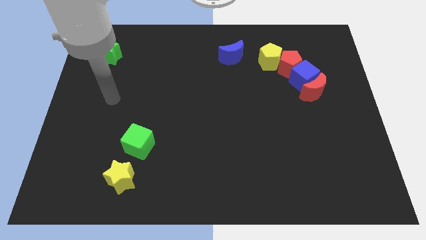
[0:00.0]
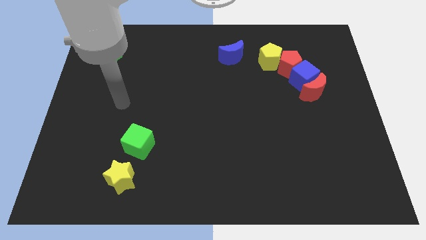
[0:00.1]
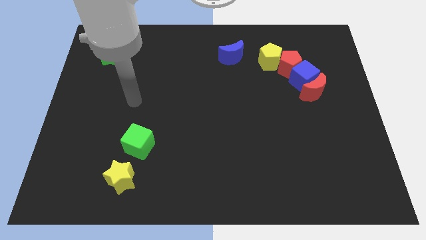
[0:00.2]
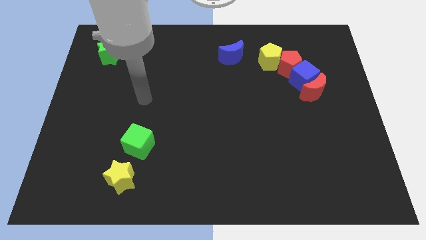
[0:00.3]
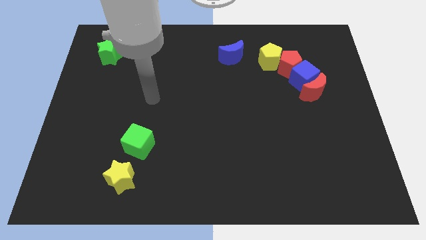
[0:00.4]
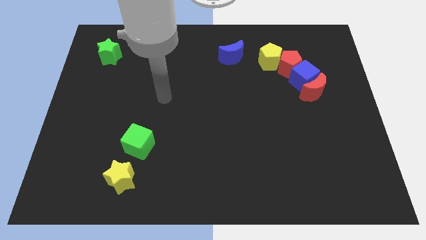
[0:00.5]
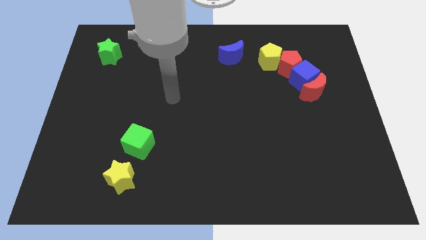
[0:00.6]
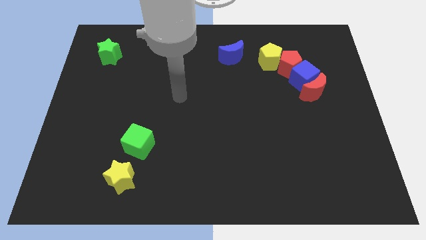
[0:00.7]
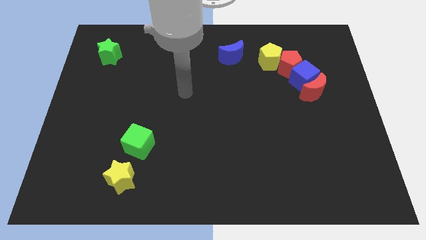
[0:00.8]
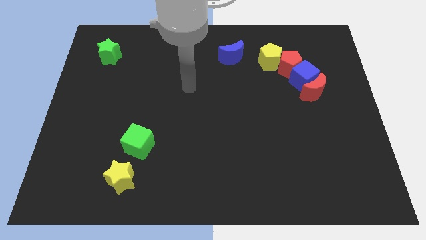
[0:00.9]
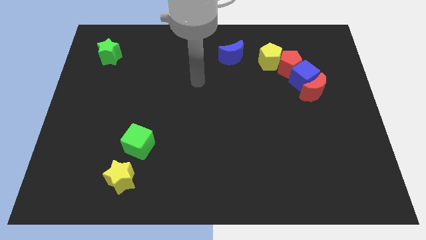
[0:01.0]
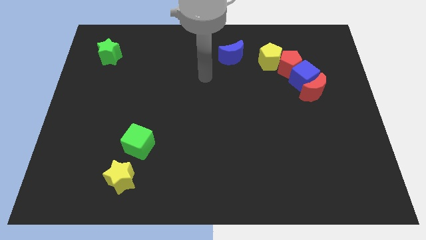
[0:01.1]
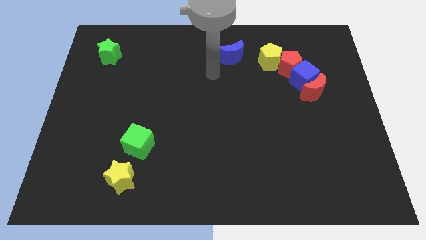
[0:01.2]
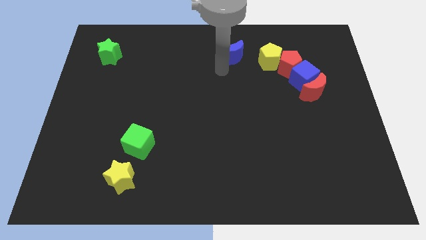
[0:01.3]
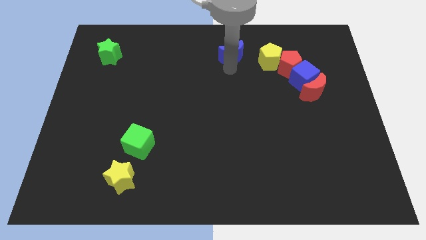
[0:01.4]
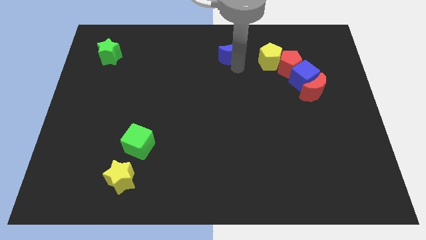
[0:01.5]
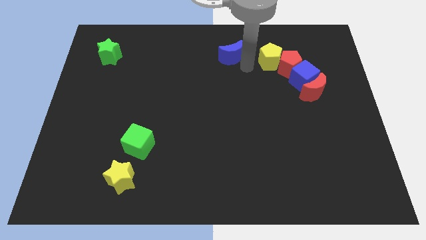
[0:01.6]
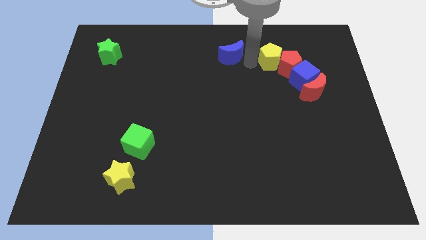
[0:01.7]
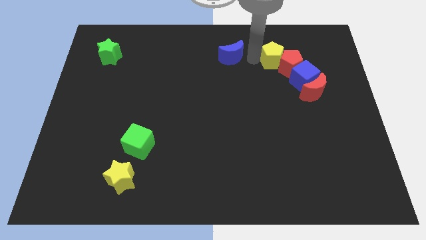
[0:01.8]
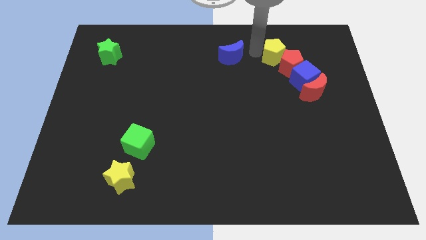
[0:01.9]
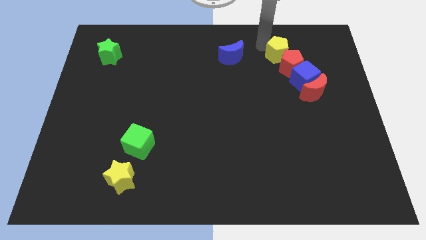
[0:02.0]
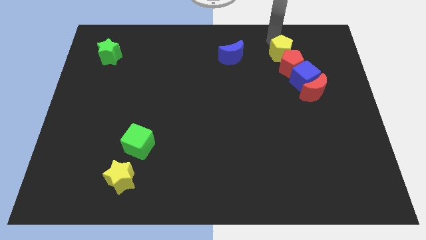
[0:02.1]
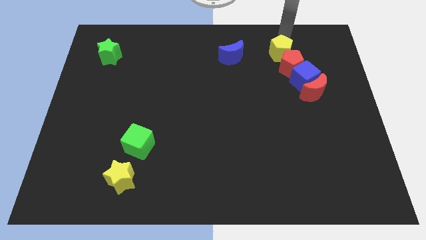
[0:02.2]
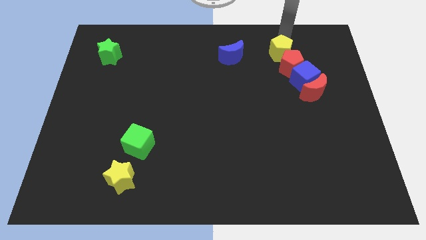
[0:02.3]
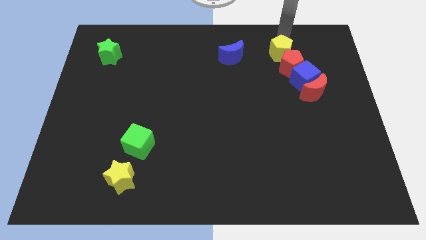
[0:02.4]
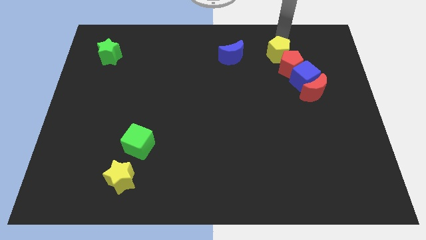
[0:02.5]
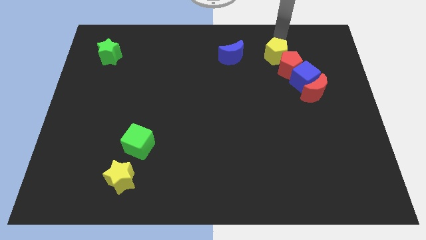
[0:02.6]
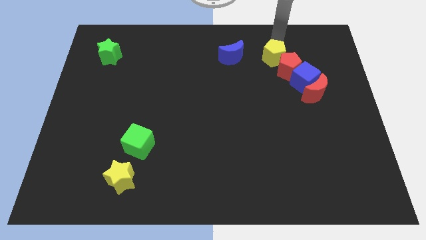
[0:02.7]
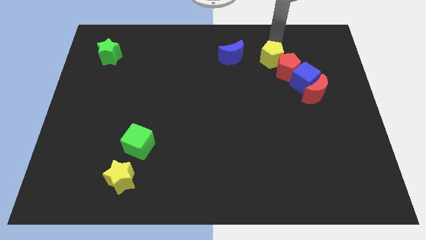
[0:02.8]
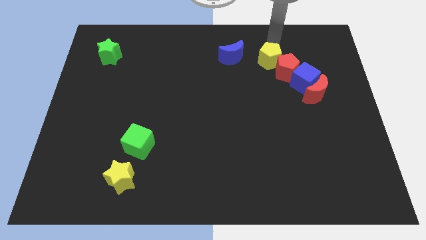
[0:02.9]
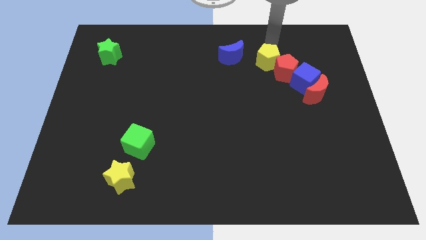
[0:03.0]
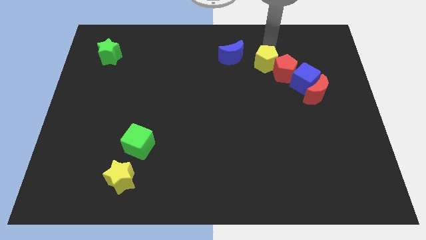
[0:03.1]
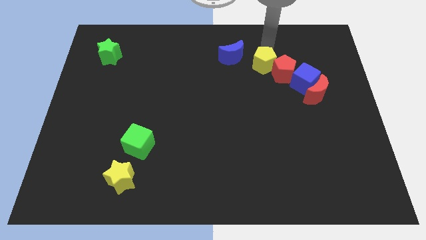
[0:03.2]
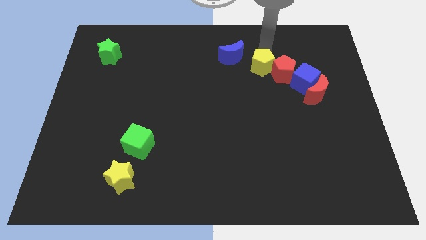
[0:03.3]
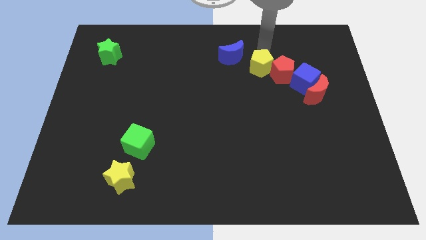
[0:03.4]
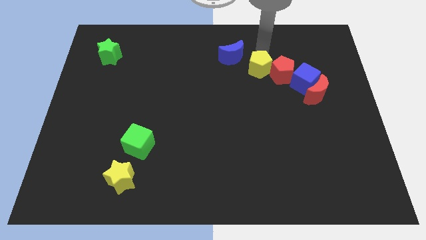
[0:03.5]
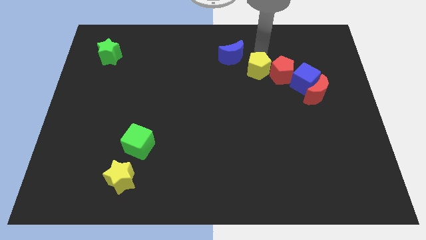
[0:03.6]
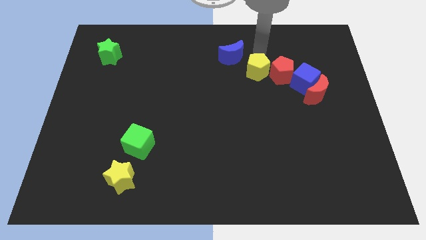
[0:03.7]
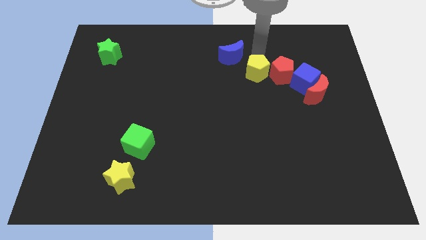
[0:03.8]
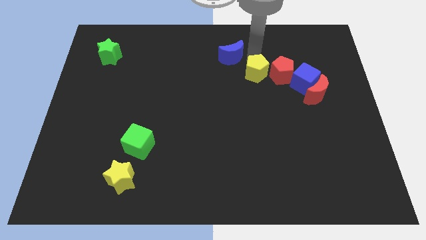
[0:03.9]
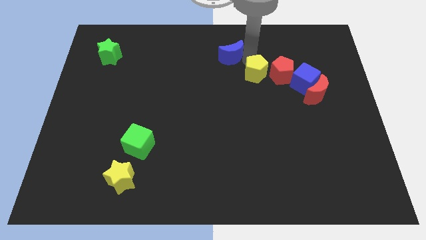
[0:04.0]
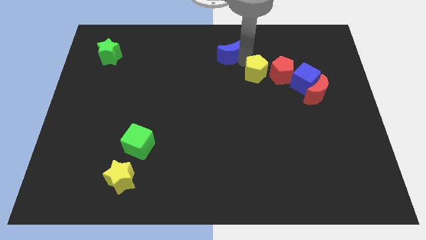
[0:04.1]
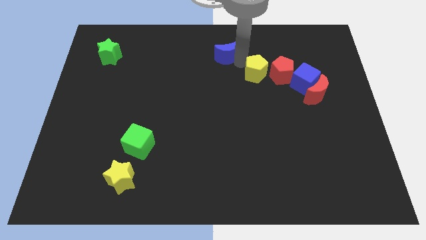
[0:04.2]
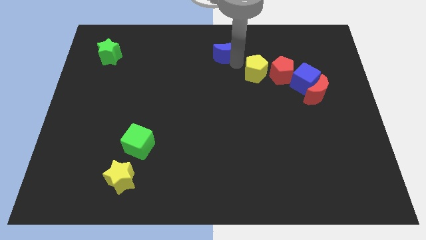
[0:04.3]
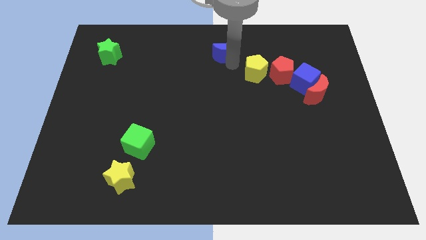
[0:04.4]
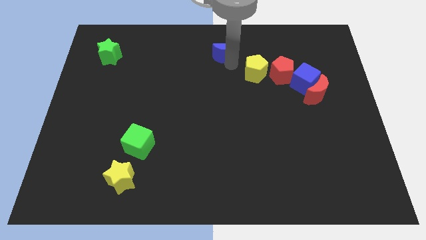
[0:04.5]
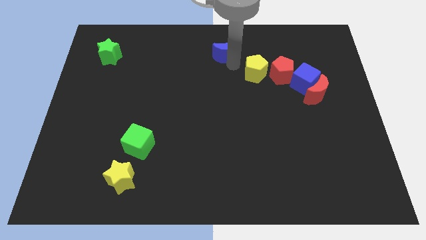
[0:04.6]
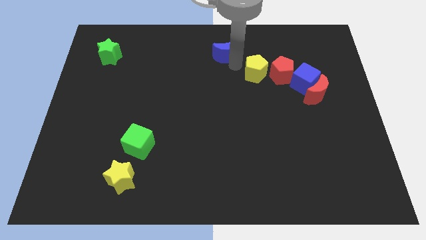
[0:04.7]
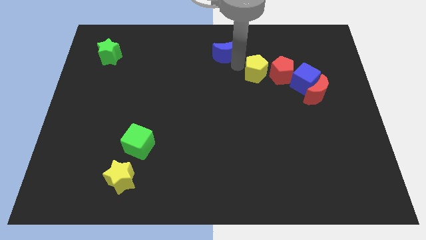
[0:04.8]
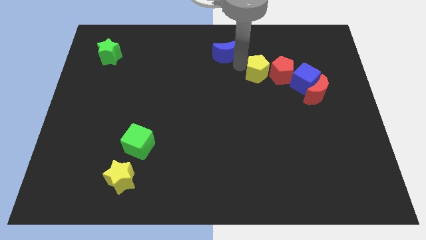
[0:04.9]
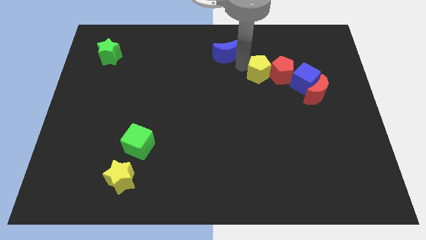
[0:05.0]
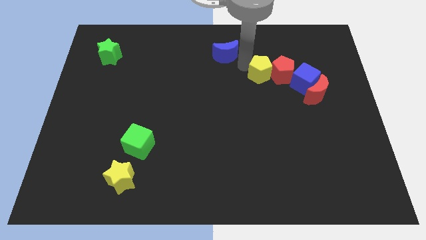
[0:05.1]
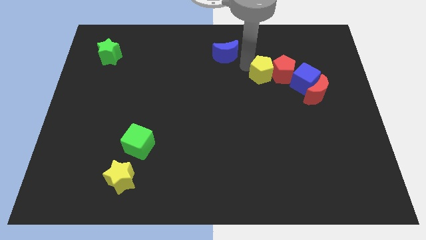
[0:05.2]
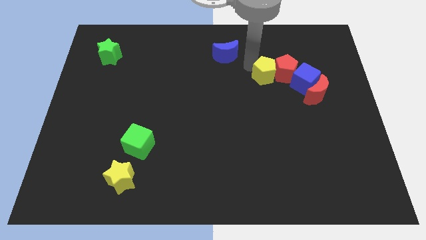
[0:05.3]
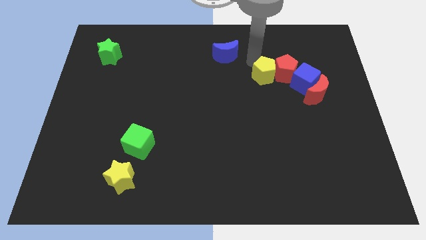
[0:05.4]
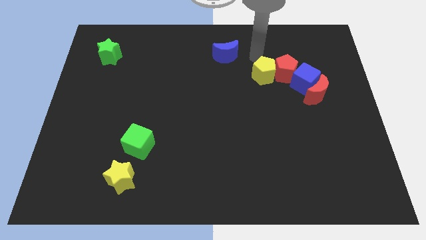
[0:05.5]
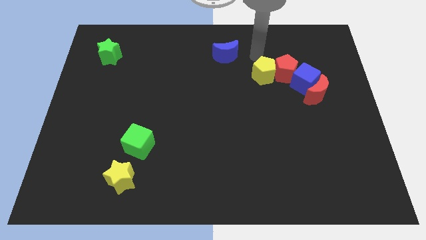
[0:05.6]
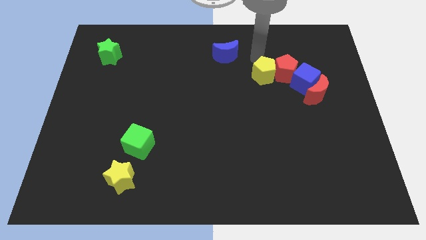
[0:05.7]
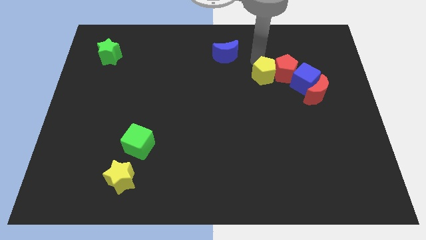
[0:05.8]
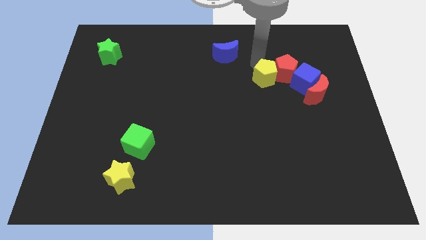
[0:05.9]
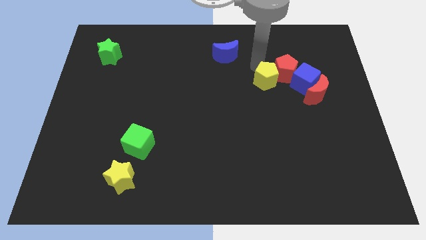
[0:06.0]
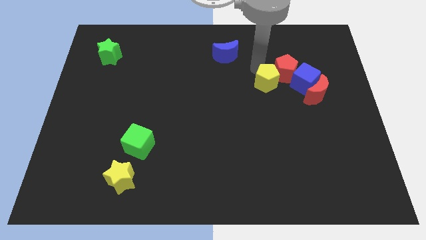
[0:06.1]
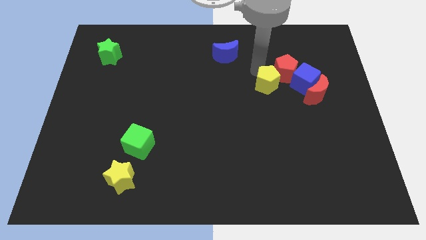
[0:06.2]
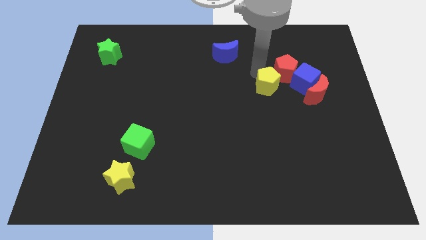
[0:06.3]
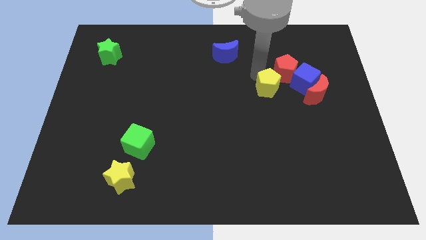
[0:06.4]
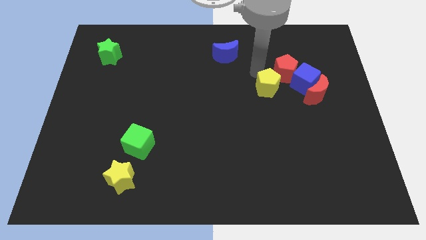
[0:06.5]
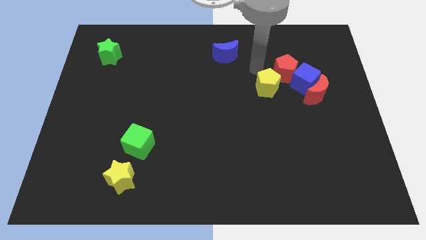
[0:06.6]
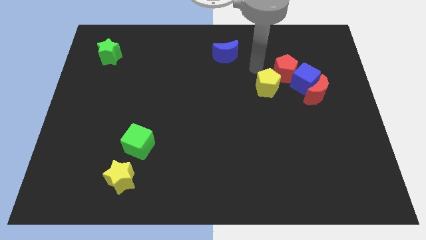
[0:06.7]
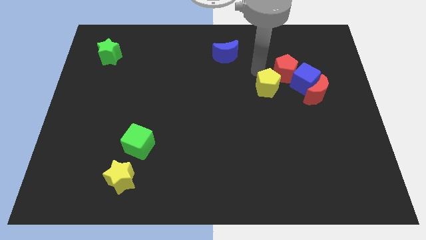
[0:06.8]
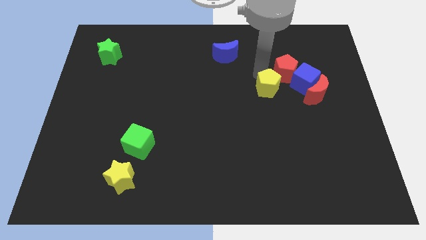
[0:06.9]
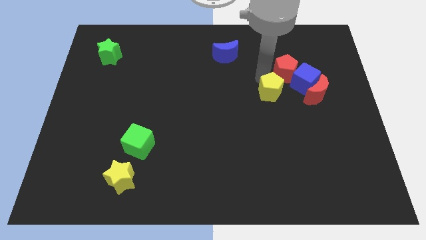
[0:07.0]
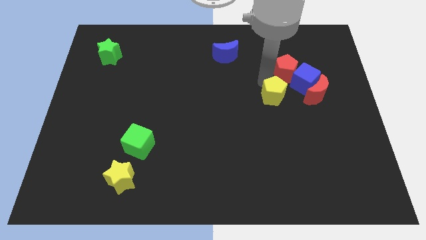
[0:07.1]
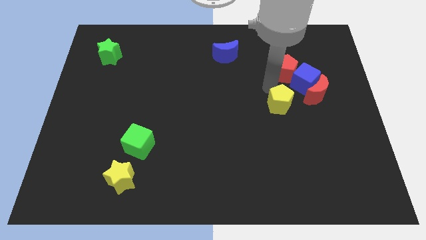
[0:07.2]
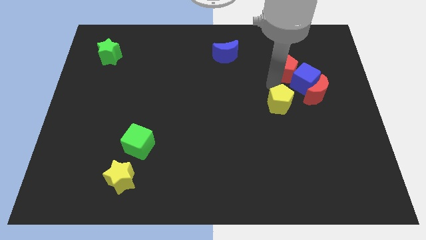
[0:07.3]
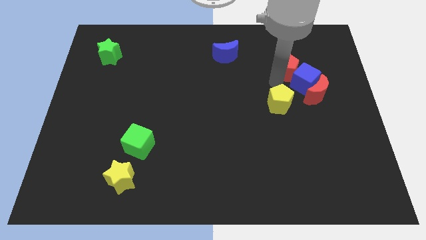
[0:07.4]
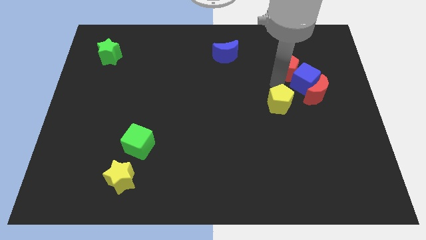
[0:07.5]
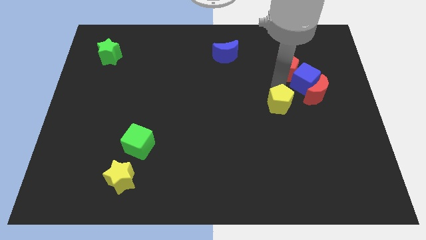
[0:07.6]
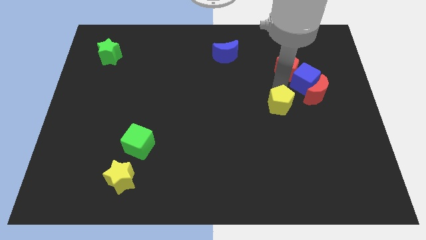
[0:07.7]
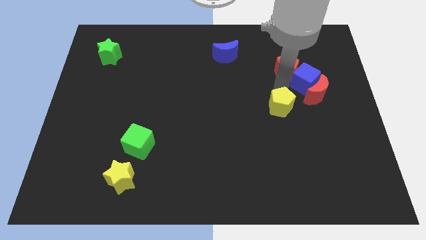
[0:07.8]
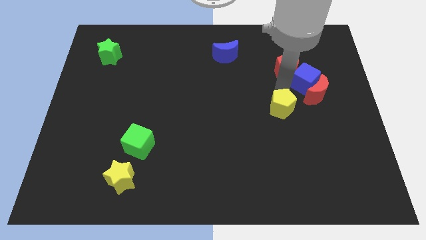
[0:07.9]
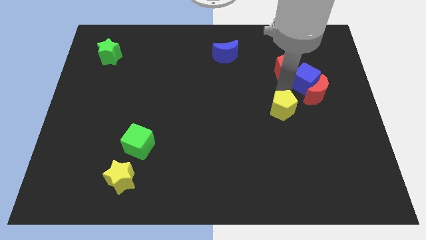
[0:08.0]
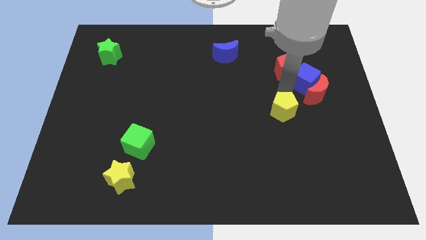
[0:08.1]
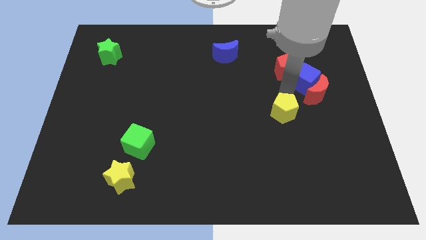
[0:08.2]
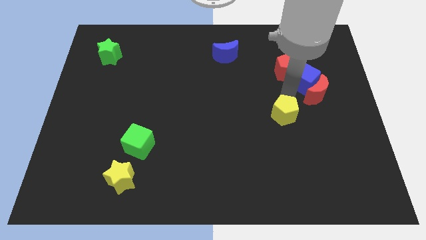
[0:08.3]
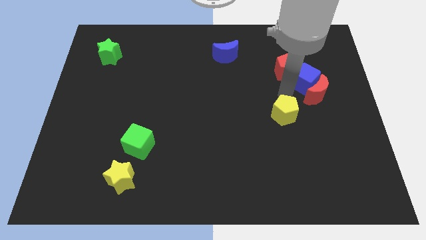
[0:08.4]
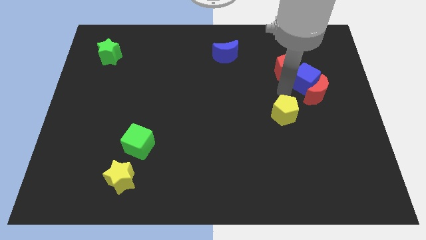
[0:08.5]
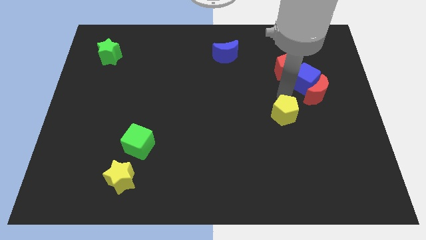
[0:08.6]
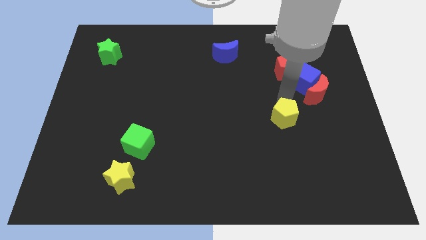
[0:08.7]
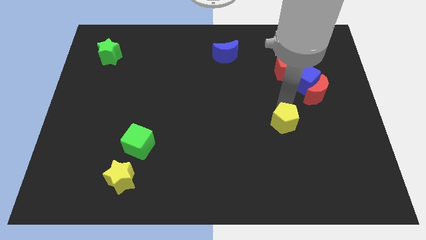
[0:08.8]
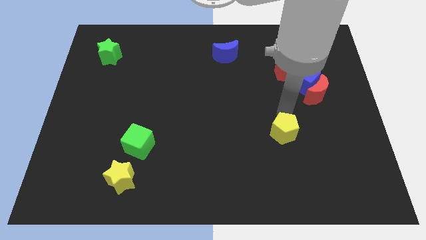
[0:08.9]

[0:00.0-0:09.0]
slide the yellow pentagon downwards
